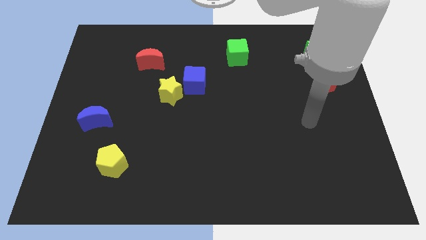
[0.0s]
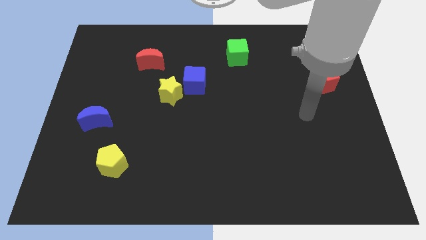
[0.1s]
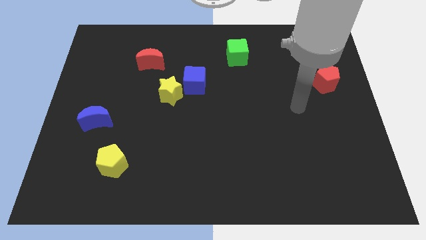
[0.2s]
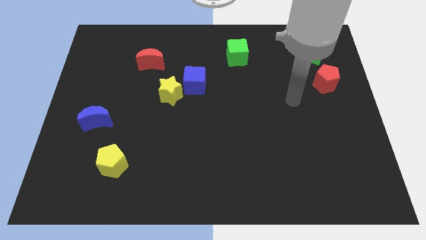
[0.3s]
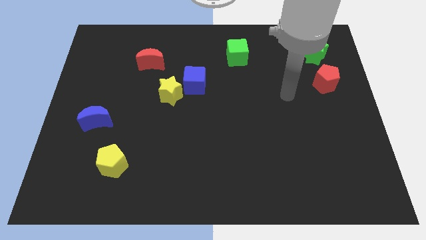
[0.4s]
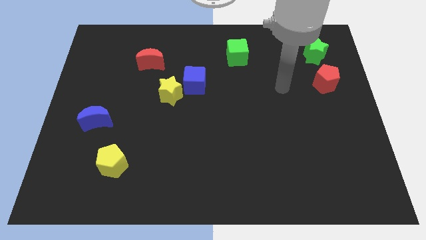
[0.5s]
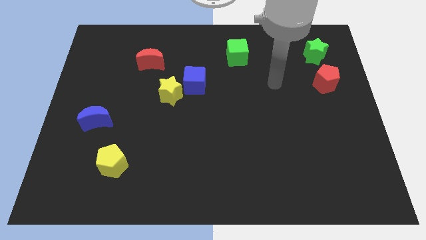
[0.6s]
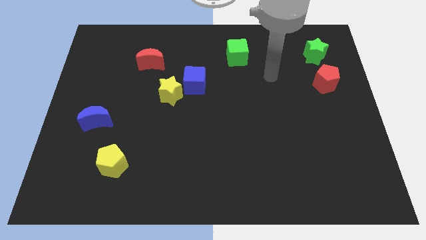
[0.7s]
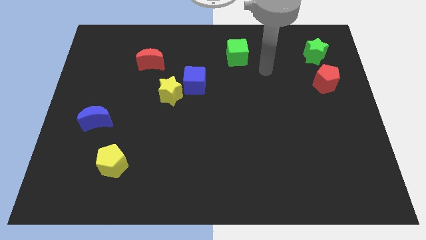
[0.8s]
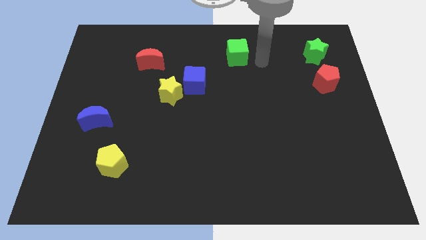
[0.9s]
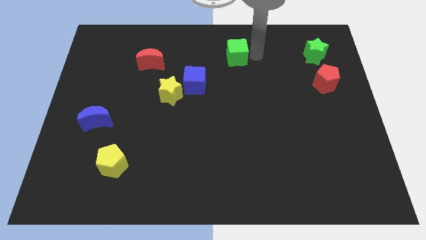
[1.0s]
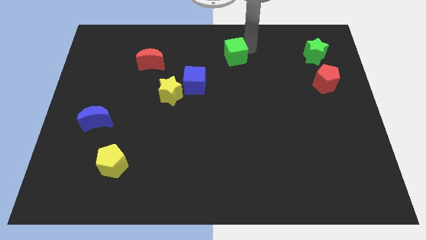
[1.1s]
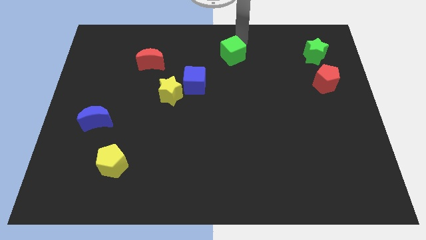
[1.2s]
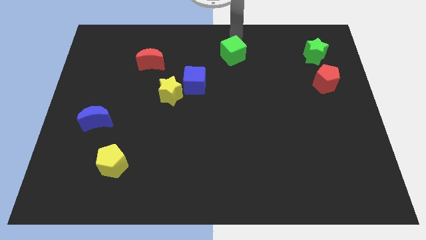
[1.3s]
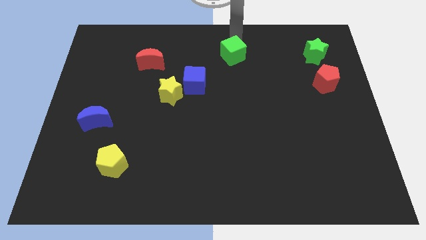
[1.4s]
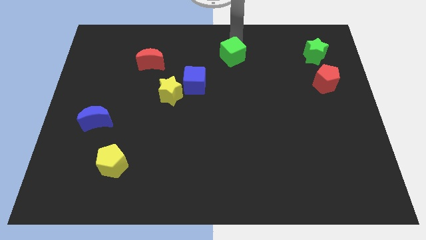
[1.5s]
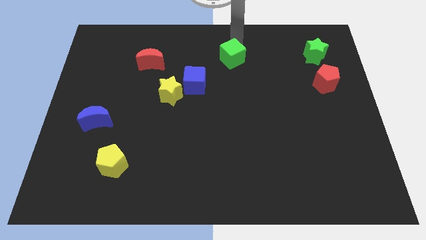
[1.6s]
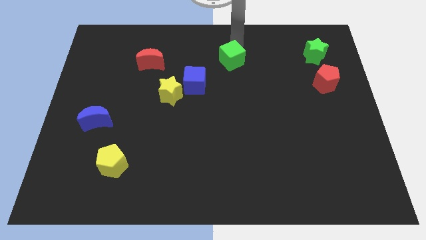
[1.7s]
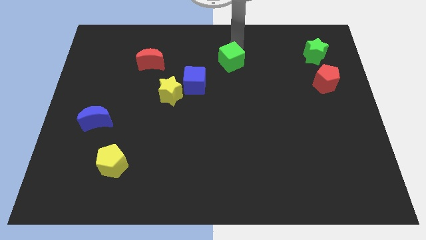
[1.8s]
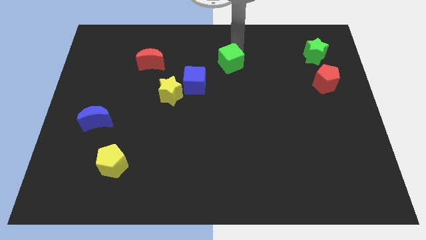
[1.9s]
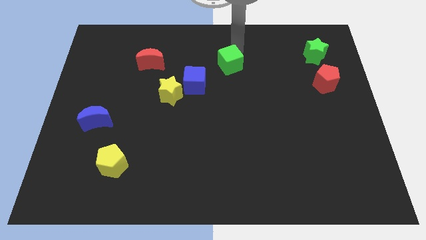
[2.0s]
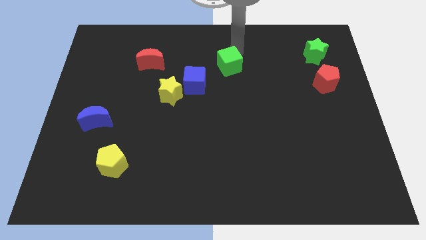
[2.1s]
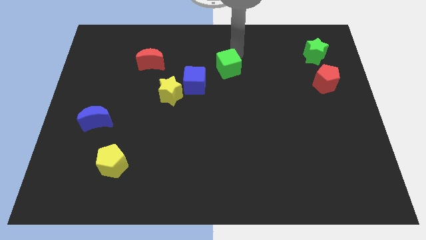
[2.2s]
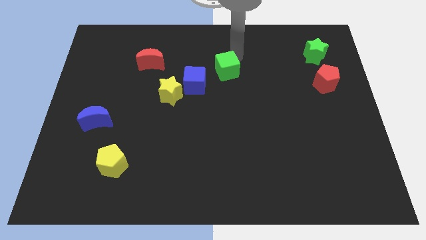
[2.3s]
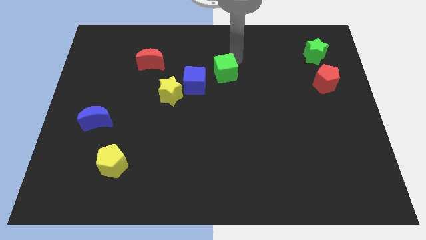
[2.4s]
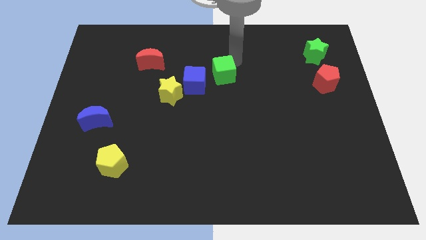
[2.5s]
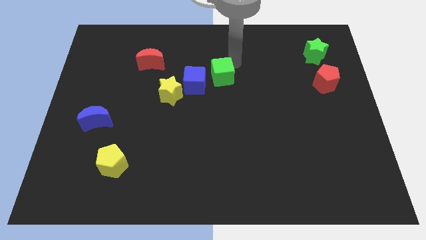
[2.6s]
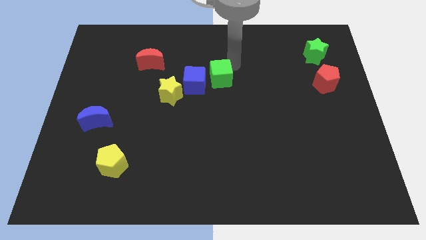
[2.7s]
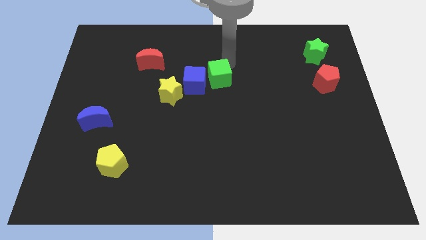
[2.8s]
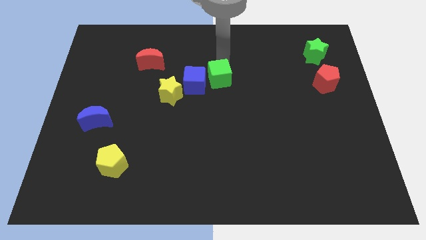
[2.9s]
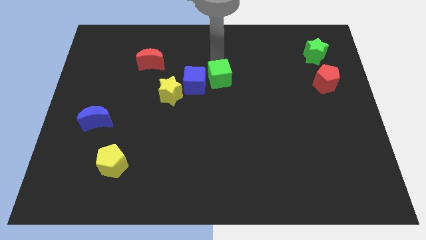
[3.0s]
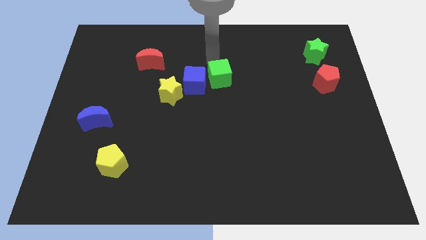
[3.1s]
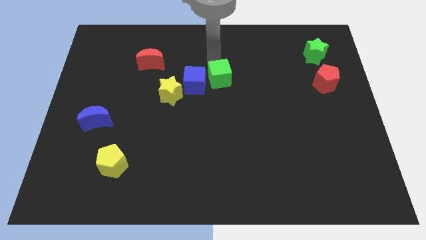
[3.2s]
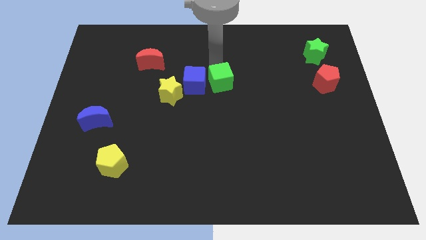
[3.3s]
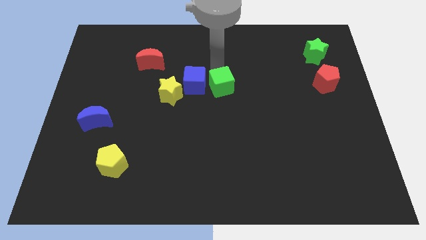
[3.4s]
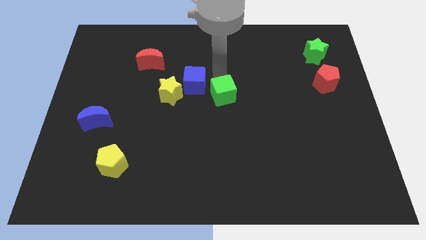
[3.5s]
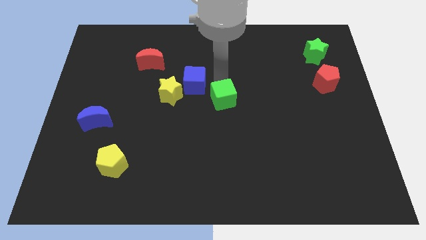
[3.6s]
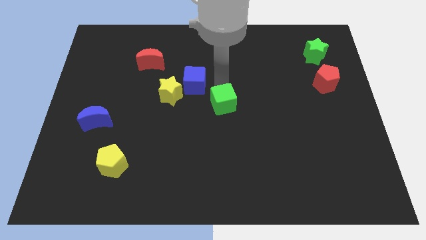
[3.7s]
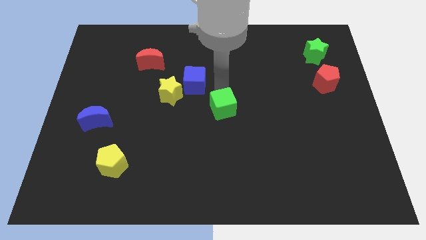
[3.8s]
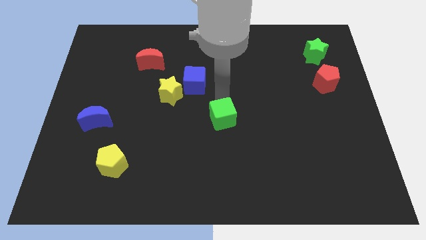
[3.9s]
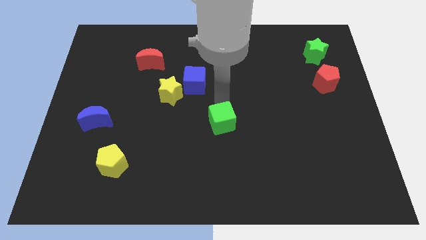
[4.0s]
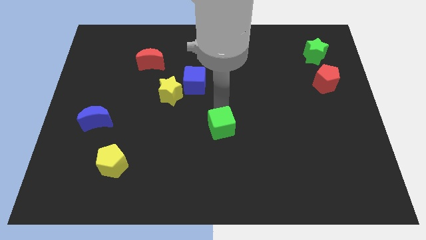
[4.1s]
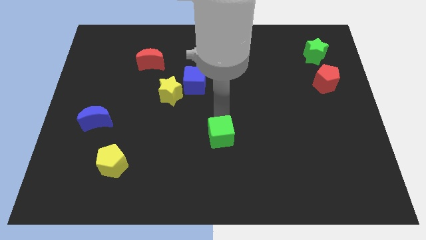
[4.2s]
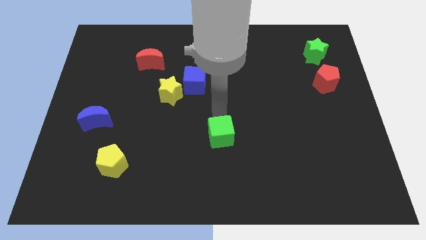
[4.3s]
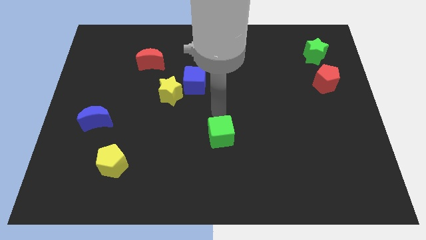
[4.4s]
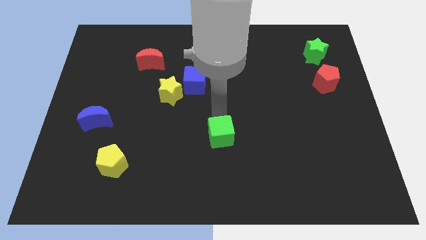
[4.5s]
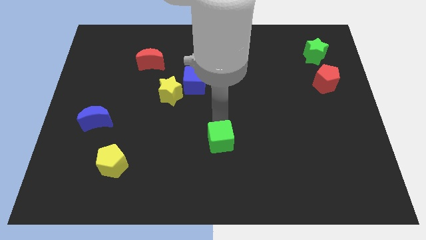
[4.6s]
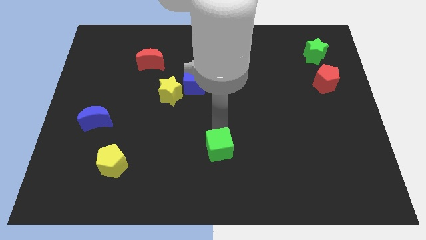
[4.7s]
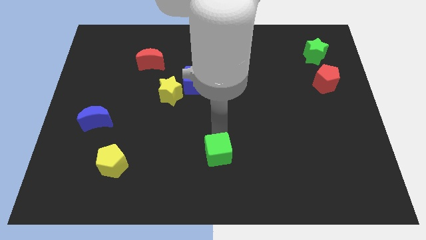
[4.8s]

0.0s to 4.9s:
slide the green cube to the bottom

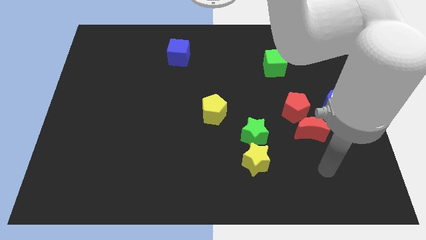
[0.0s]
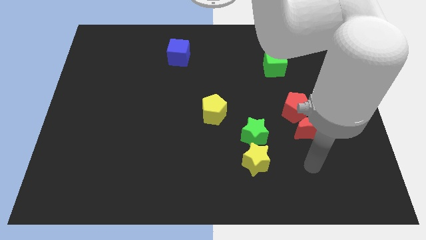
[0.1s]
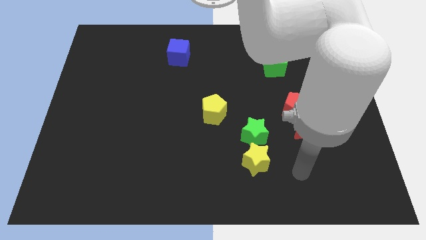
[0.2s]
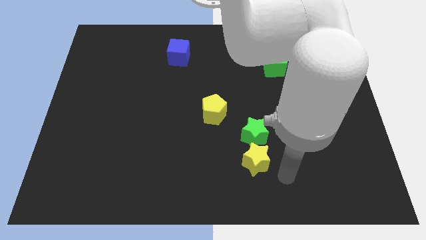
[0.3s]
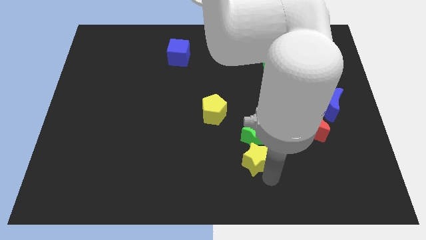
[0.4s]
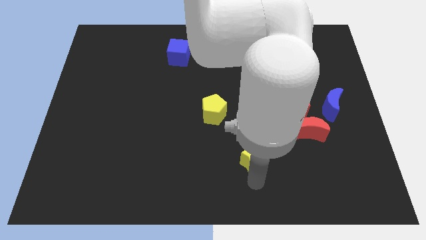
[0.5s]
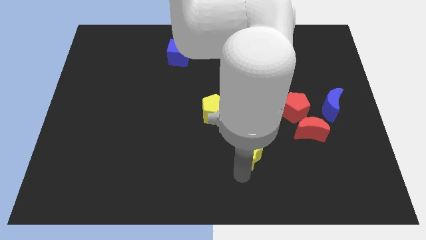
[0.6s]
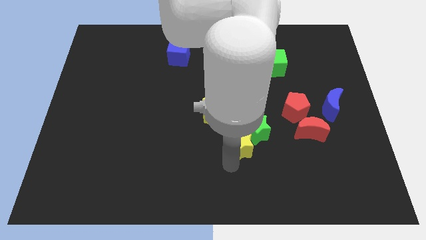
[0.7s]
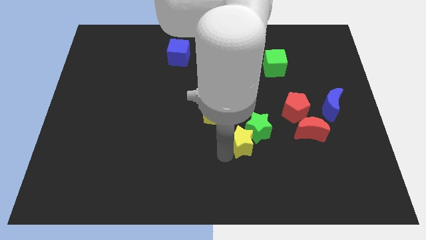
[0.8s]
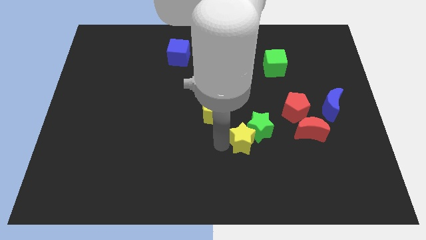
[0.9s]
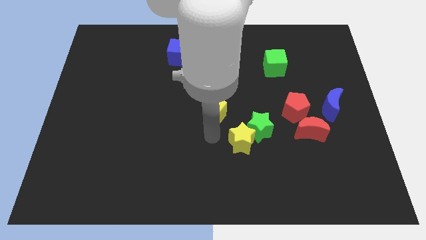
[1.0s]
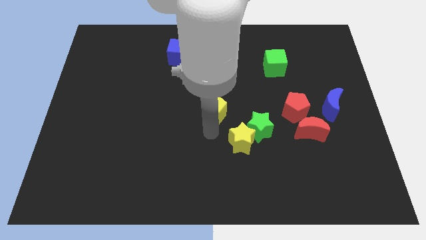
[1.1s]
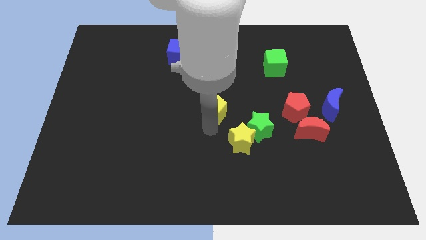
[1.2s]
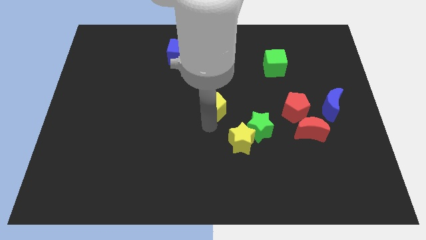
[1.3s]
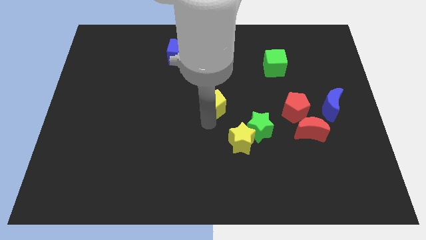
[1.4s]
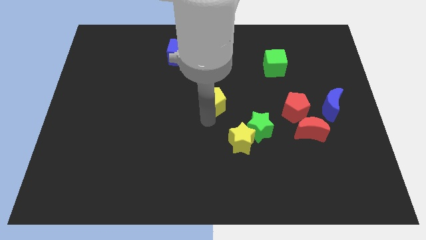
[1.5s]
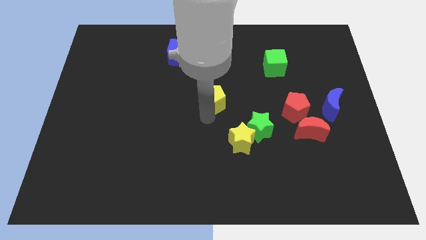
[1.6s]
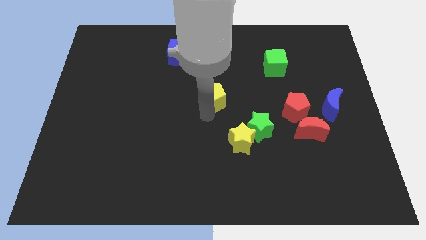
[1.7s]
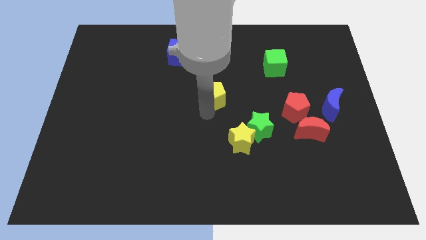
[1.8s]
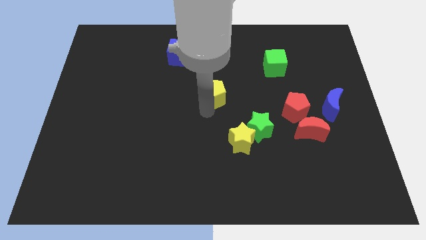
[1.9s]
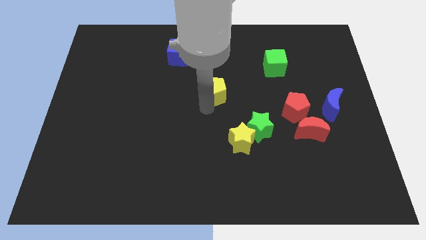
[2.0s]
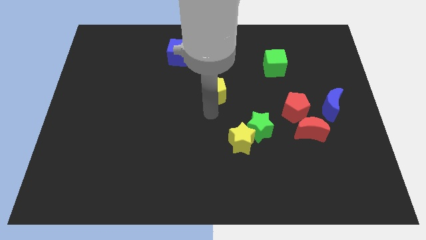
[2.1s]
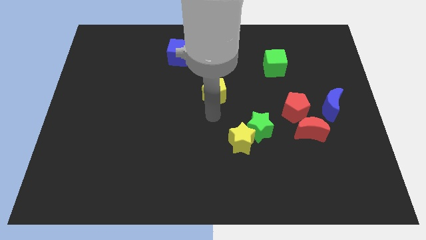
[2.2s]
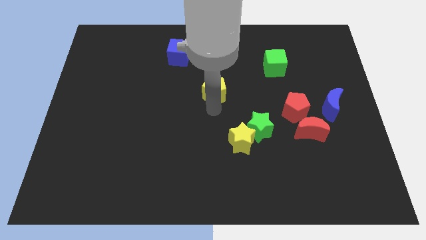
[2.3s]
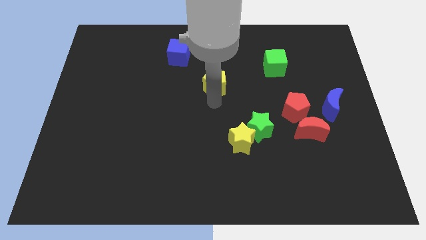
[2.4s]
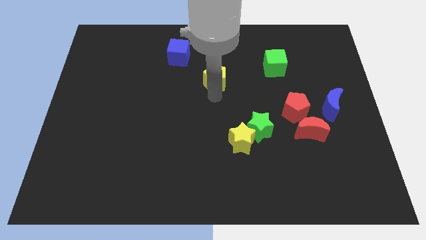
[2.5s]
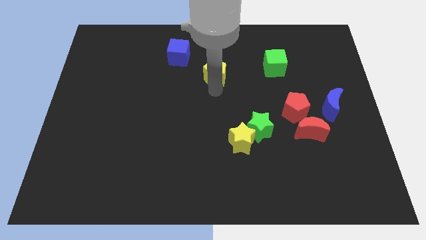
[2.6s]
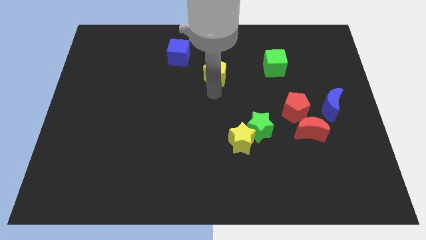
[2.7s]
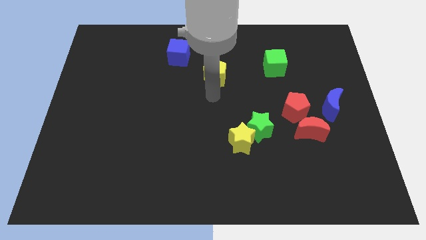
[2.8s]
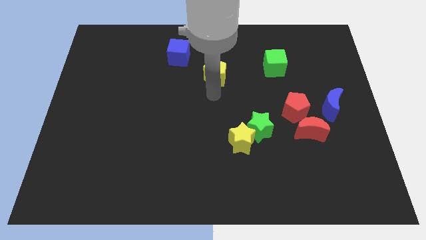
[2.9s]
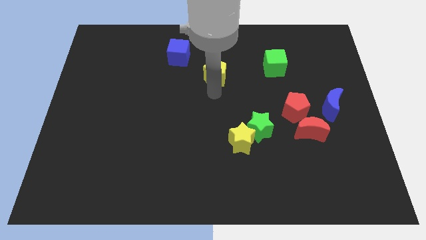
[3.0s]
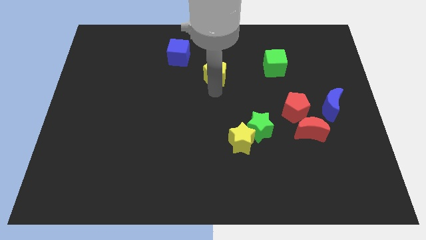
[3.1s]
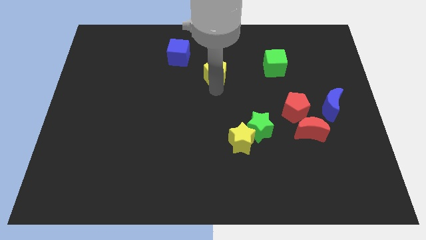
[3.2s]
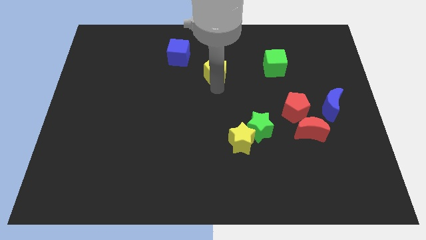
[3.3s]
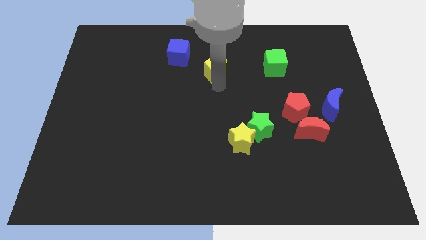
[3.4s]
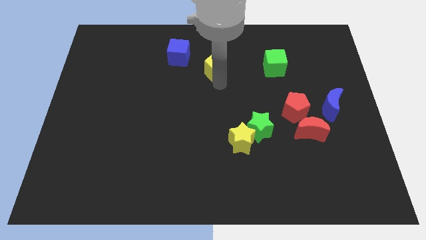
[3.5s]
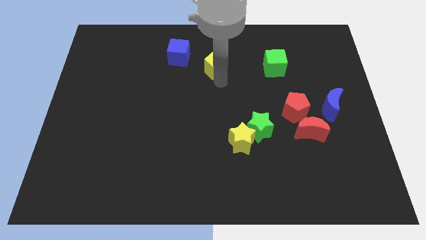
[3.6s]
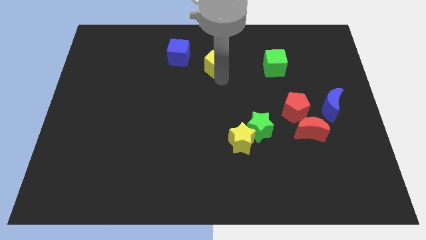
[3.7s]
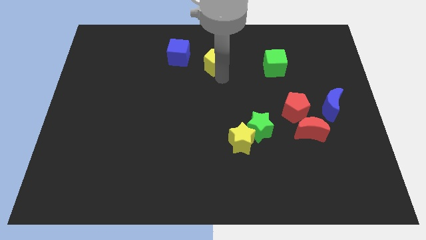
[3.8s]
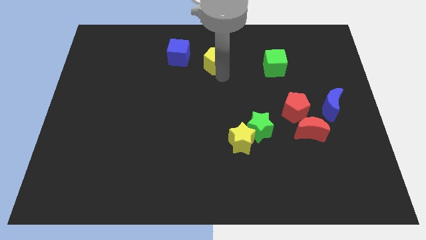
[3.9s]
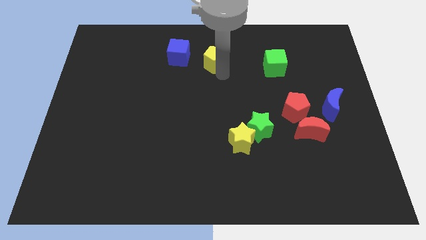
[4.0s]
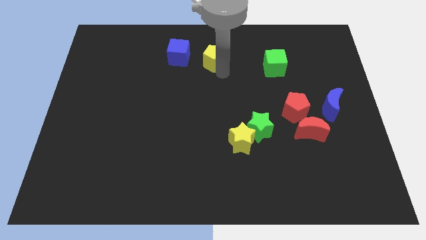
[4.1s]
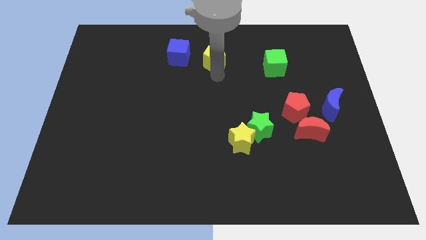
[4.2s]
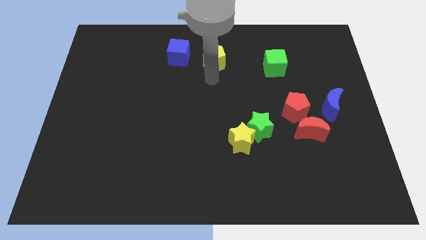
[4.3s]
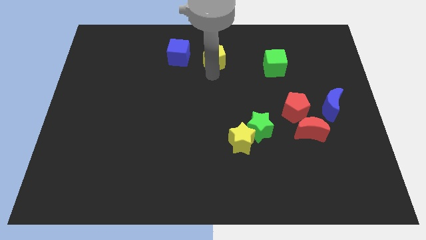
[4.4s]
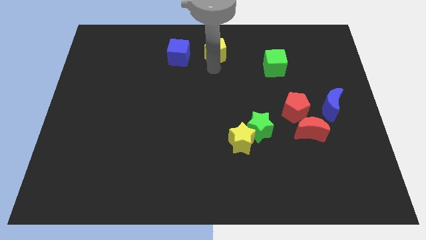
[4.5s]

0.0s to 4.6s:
put the yellow pentagon to the top
